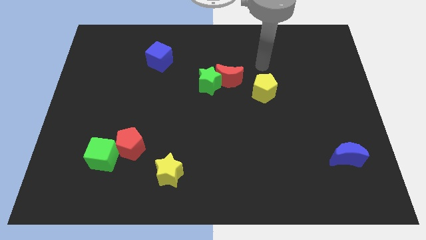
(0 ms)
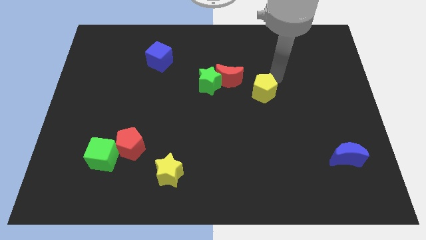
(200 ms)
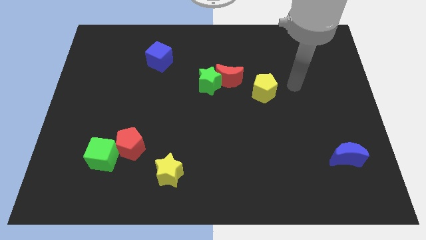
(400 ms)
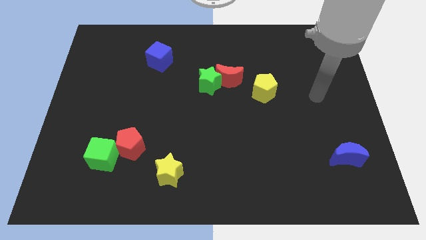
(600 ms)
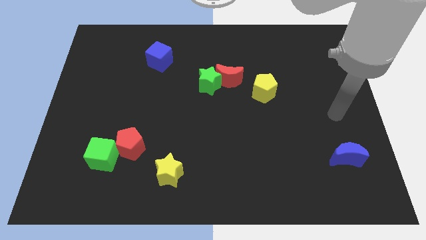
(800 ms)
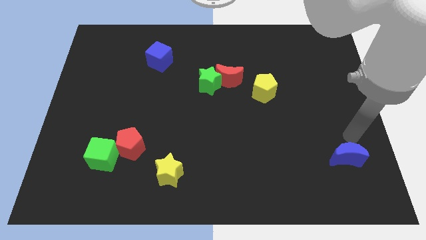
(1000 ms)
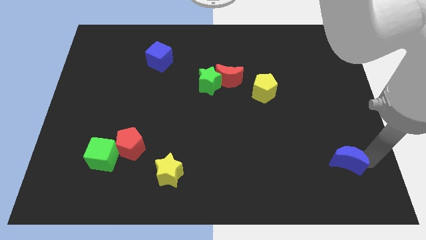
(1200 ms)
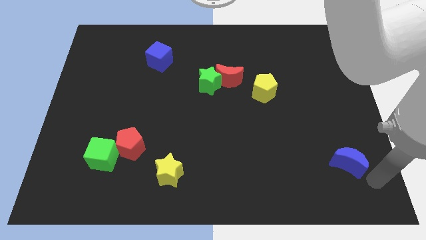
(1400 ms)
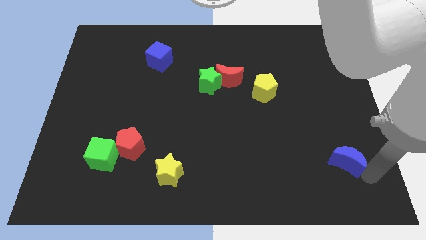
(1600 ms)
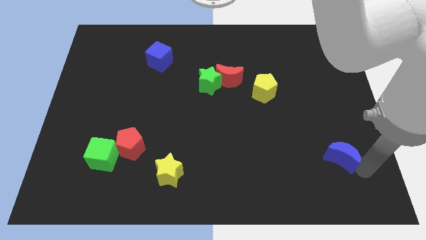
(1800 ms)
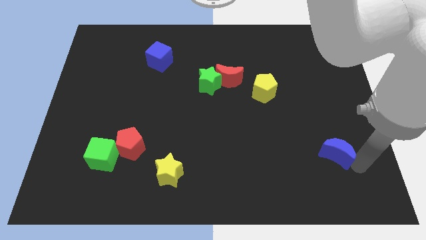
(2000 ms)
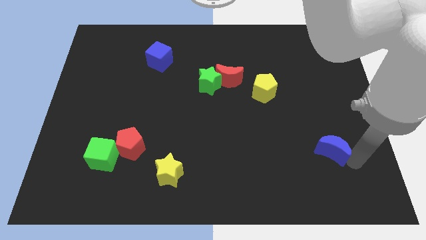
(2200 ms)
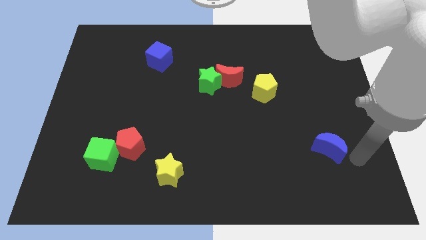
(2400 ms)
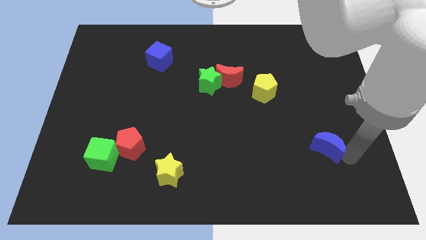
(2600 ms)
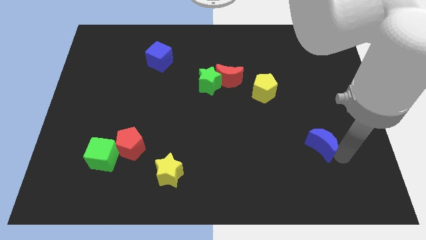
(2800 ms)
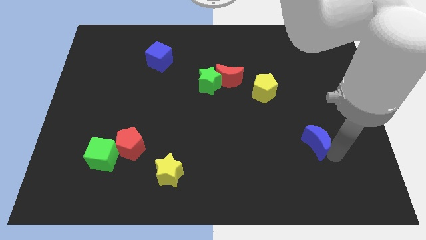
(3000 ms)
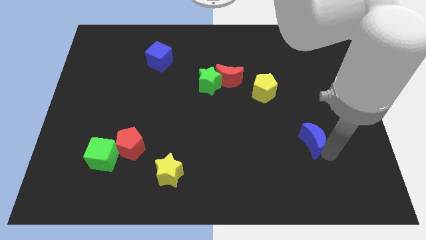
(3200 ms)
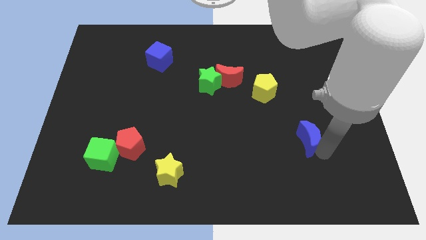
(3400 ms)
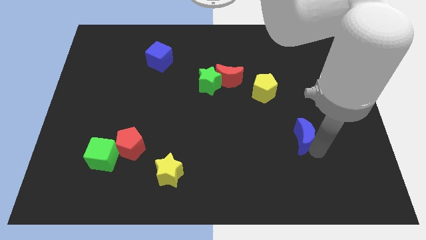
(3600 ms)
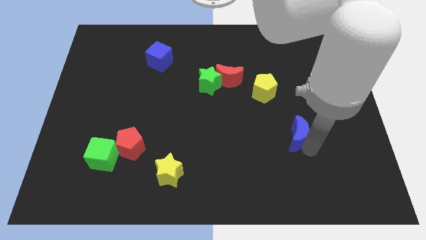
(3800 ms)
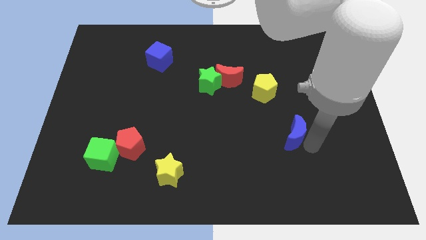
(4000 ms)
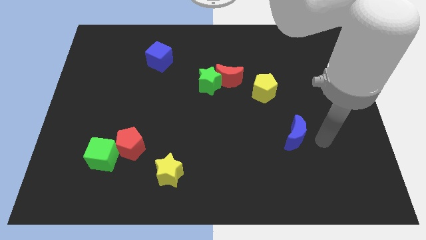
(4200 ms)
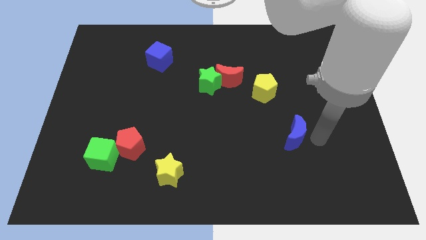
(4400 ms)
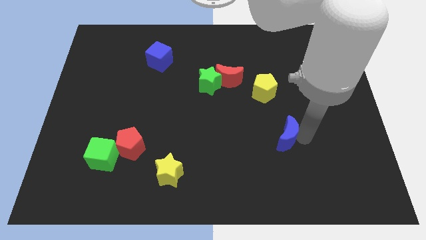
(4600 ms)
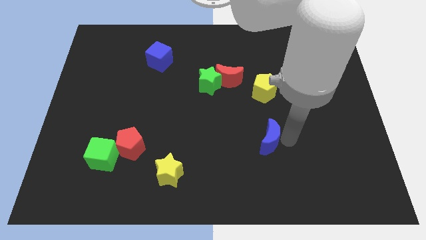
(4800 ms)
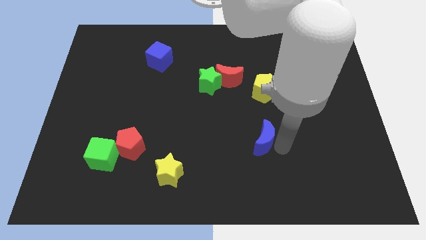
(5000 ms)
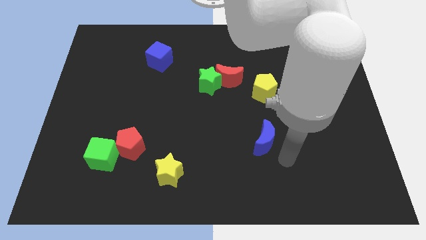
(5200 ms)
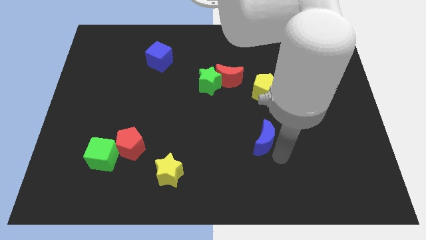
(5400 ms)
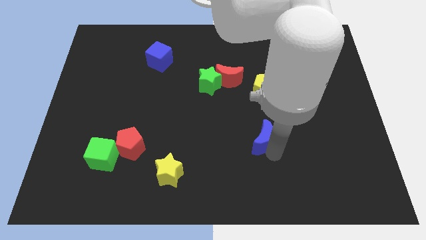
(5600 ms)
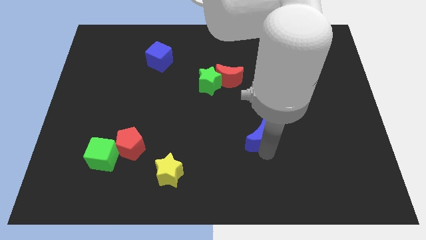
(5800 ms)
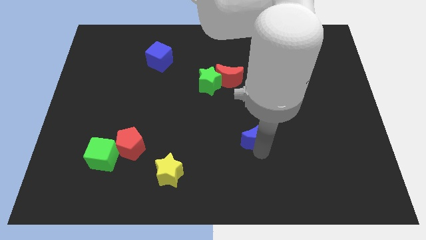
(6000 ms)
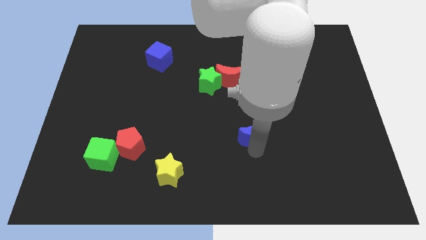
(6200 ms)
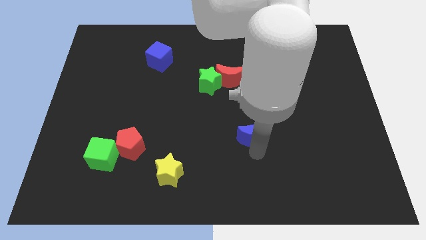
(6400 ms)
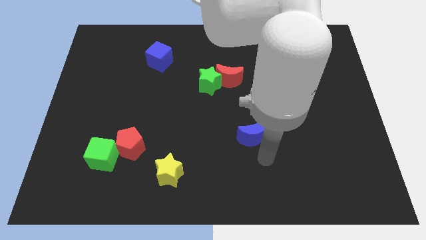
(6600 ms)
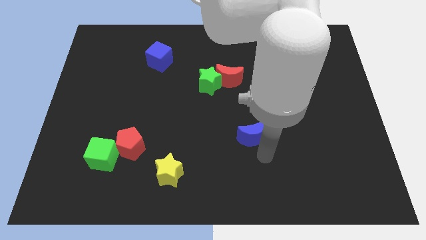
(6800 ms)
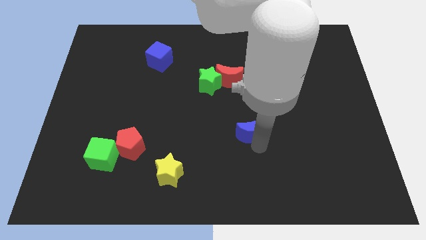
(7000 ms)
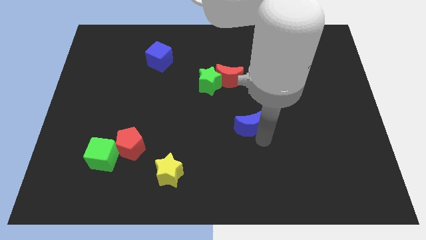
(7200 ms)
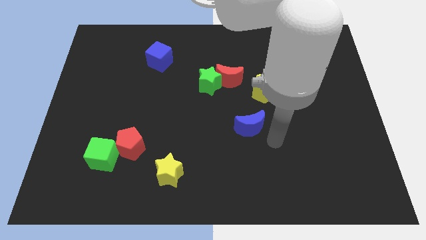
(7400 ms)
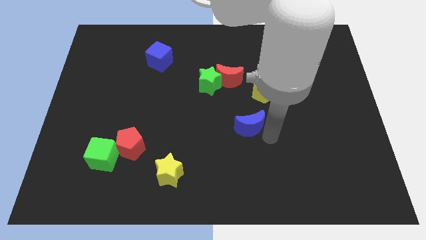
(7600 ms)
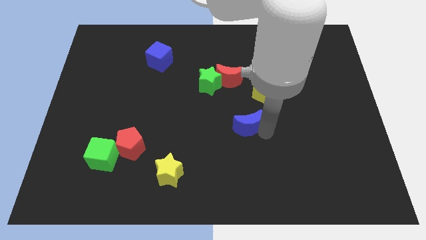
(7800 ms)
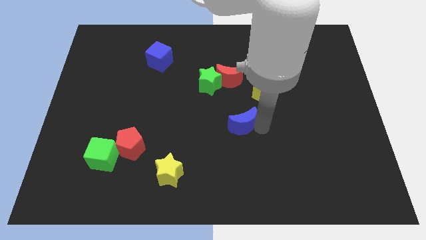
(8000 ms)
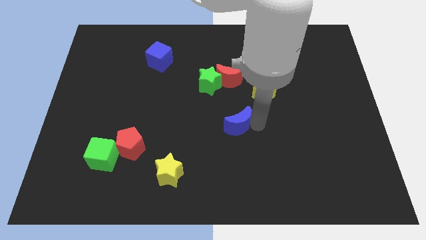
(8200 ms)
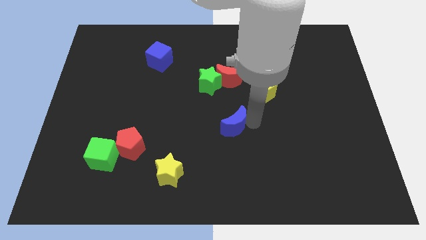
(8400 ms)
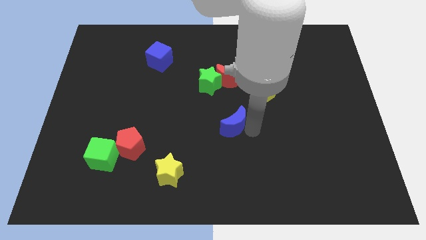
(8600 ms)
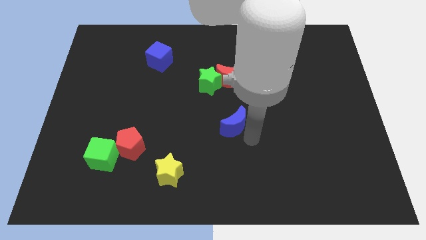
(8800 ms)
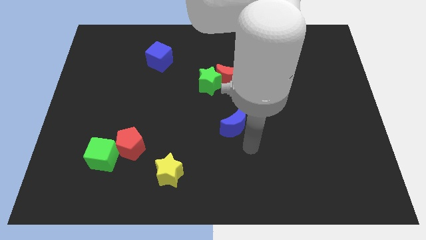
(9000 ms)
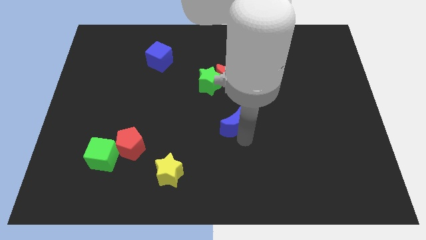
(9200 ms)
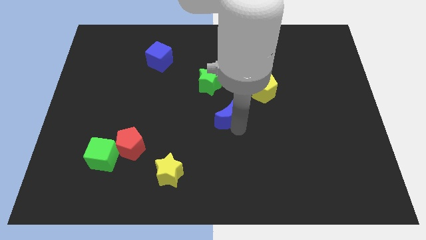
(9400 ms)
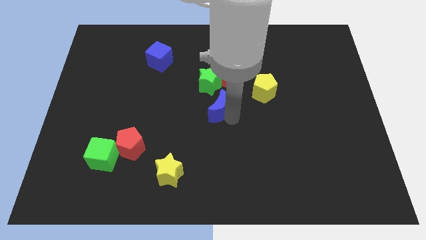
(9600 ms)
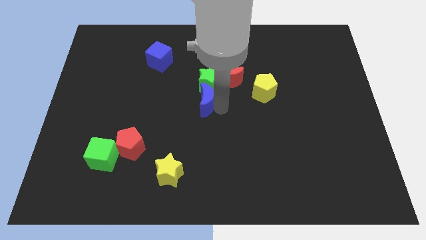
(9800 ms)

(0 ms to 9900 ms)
push the blue moon diagonally down and to the left of the green star

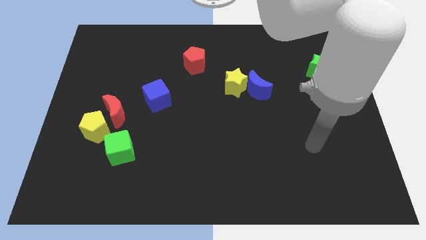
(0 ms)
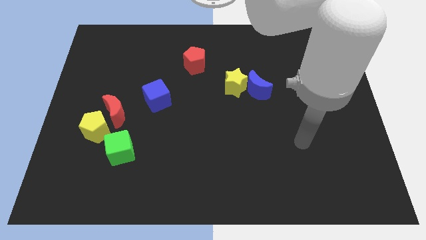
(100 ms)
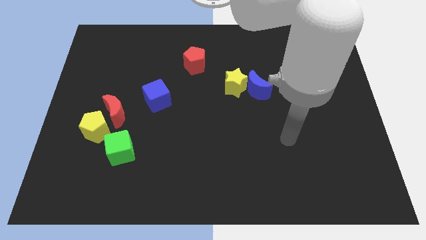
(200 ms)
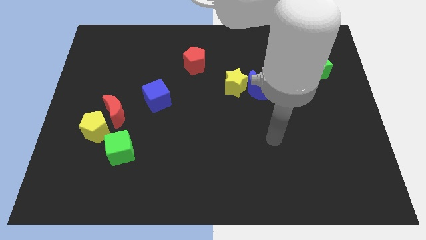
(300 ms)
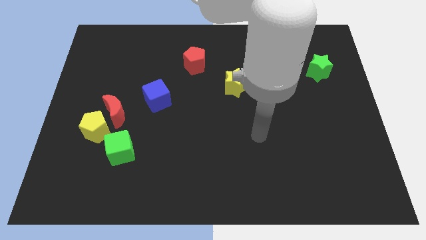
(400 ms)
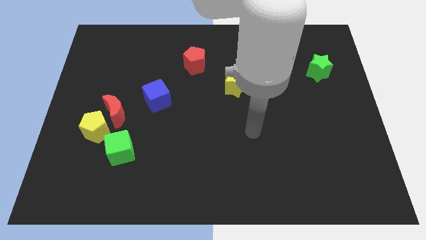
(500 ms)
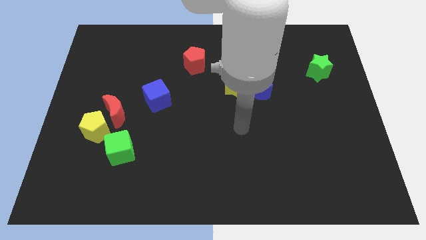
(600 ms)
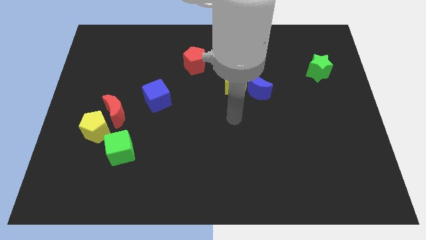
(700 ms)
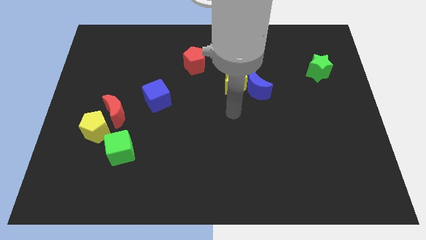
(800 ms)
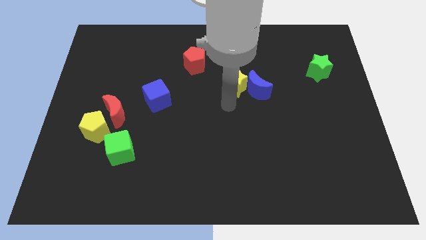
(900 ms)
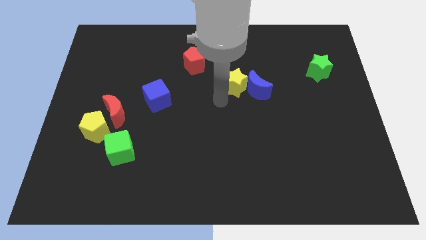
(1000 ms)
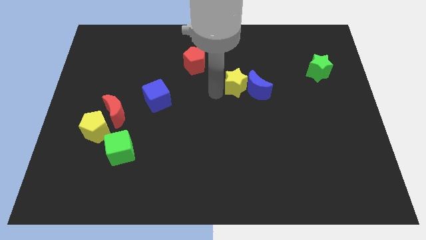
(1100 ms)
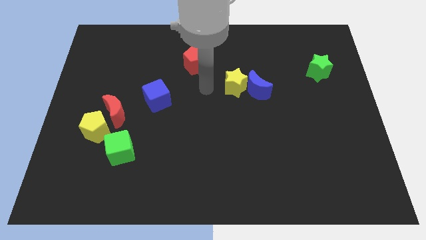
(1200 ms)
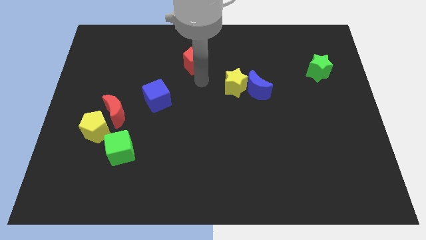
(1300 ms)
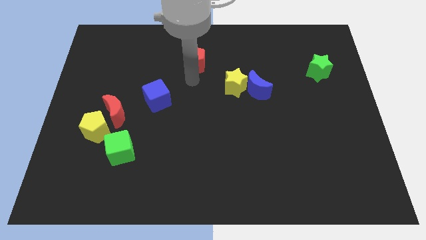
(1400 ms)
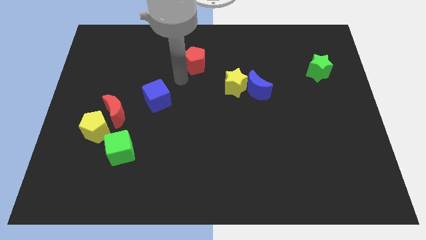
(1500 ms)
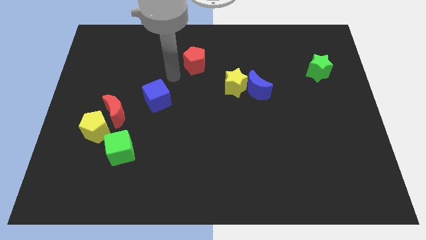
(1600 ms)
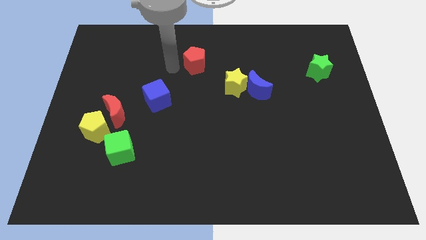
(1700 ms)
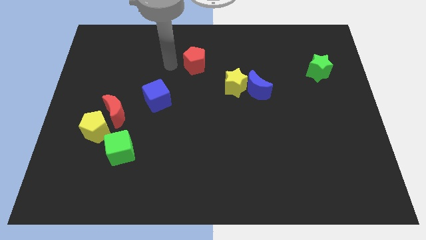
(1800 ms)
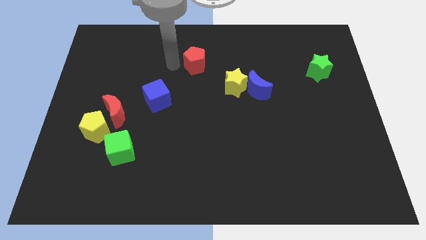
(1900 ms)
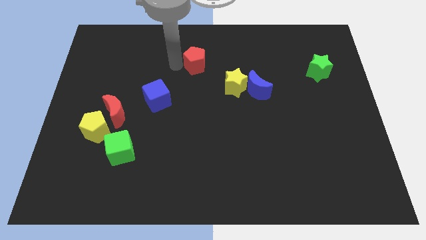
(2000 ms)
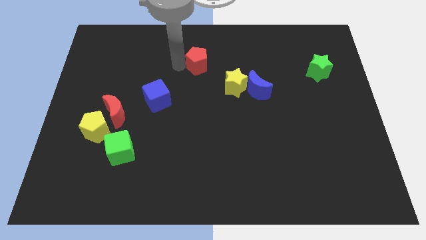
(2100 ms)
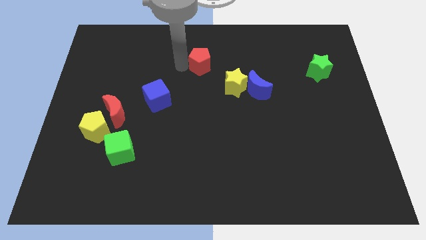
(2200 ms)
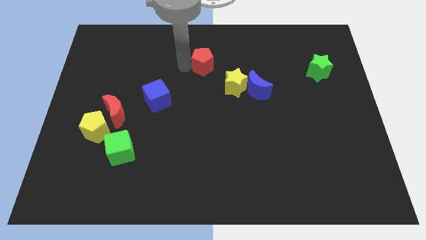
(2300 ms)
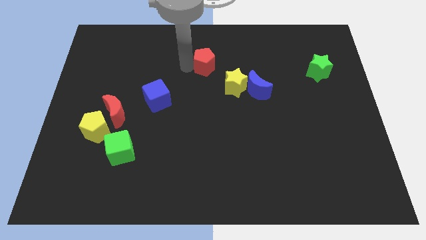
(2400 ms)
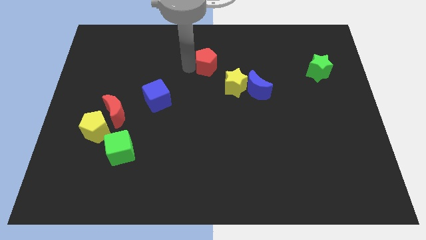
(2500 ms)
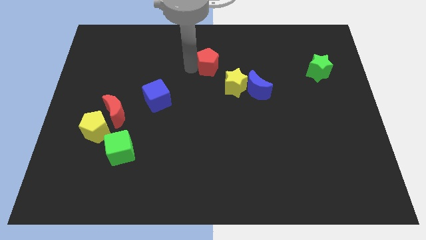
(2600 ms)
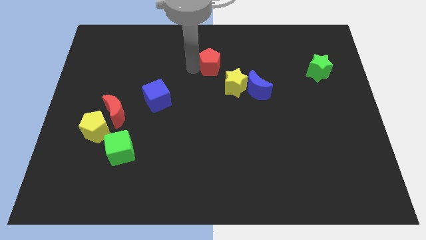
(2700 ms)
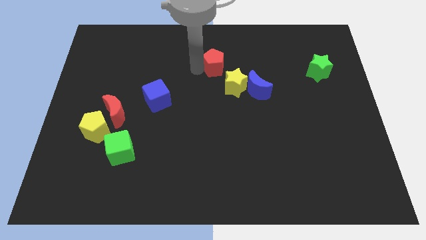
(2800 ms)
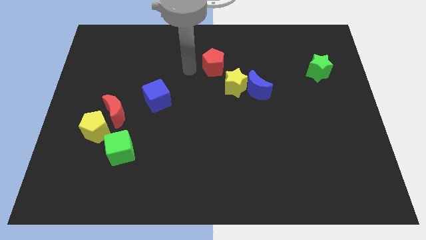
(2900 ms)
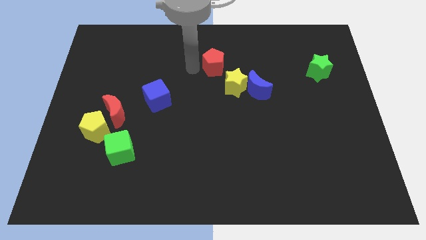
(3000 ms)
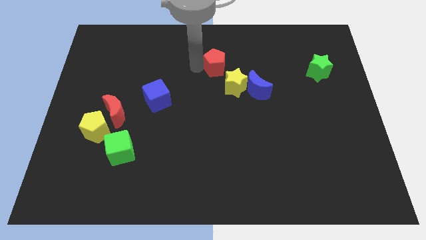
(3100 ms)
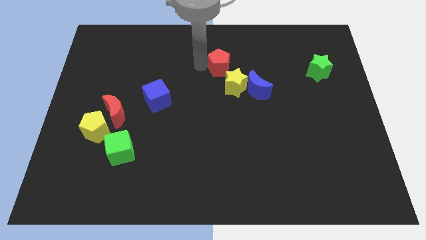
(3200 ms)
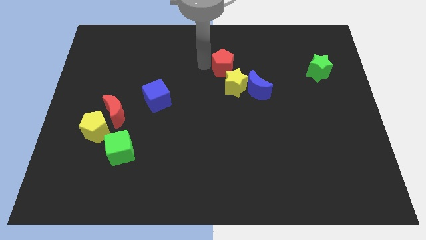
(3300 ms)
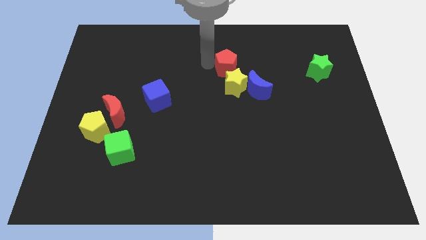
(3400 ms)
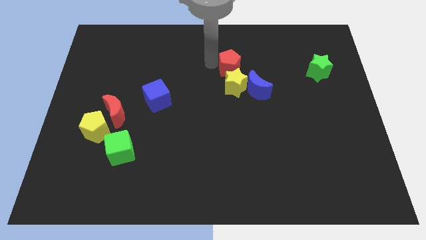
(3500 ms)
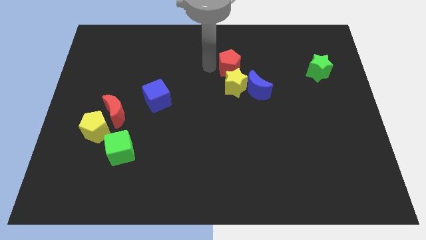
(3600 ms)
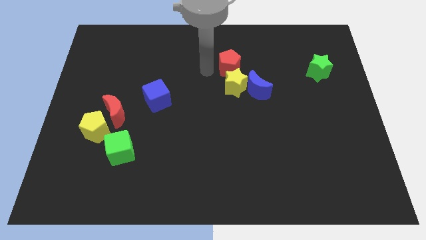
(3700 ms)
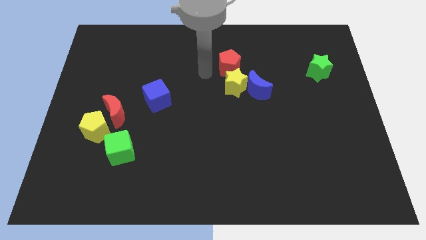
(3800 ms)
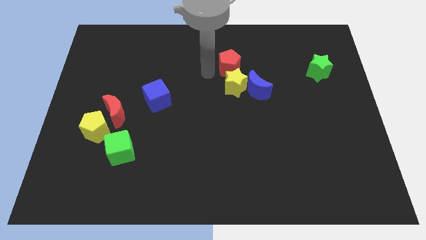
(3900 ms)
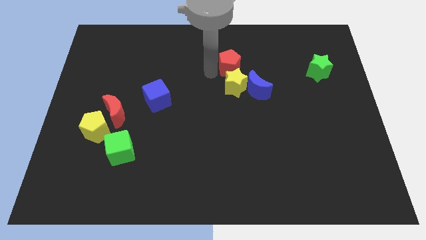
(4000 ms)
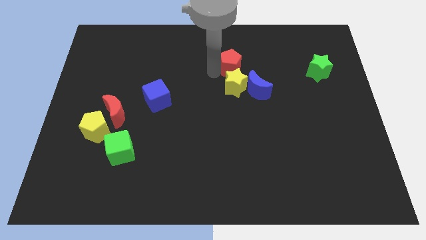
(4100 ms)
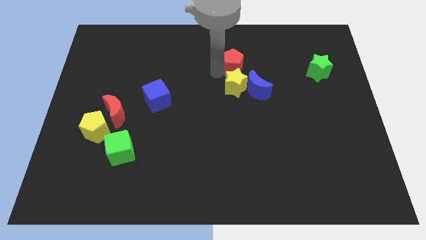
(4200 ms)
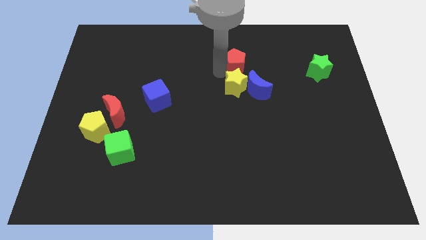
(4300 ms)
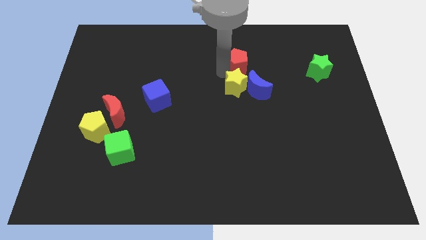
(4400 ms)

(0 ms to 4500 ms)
slide the red pentagon to the top side of the blue moon
